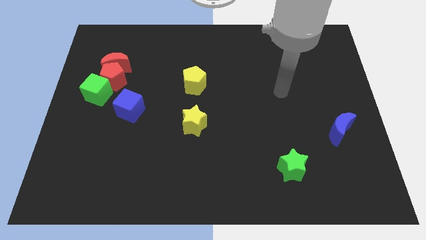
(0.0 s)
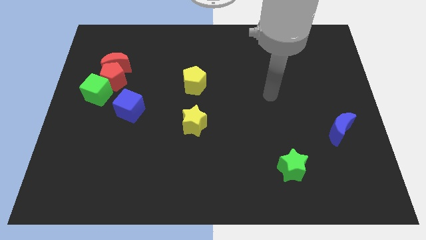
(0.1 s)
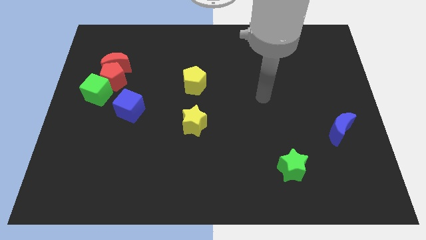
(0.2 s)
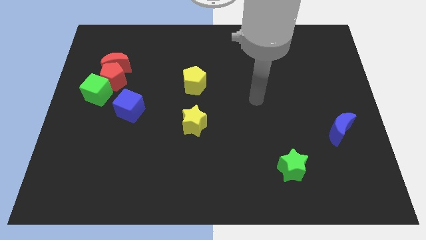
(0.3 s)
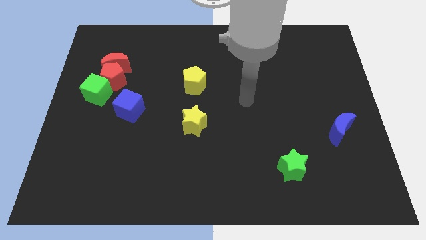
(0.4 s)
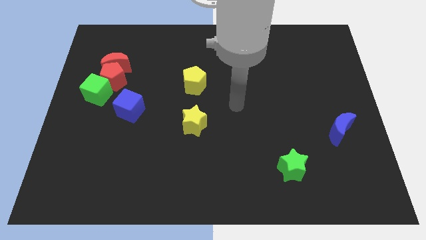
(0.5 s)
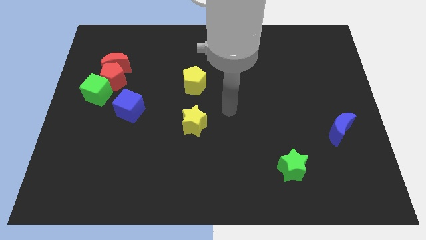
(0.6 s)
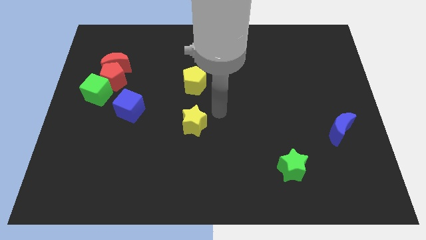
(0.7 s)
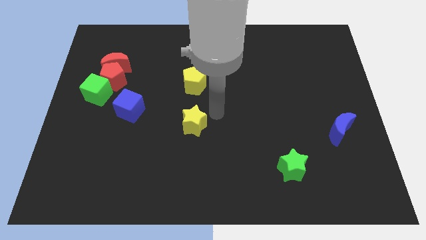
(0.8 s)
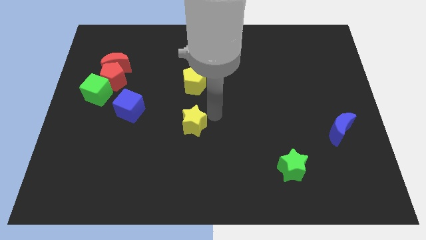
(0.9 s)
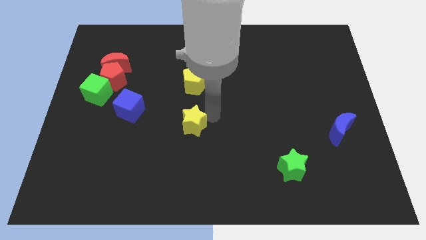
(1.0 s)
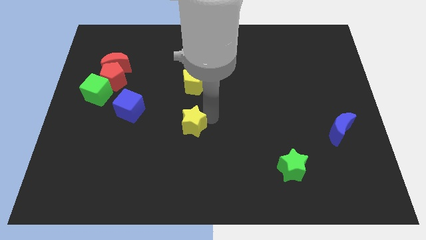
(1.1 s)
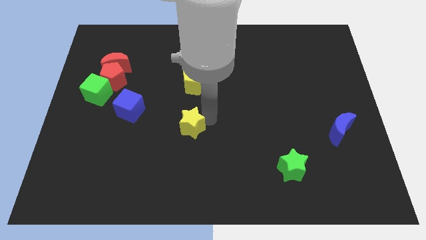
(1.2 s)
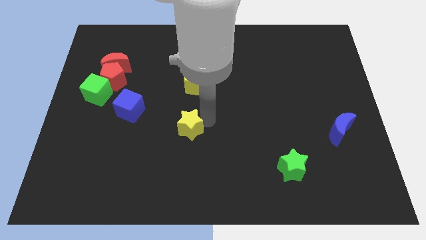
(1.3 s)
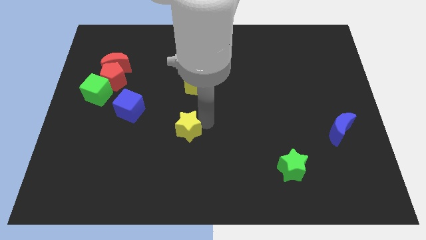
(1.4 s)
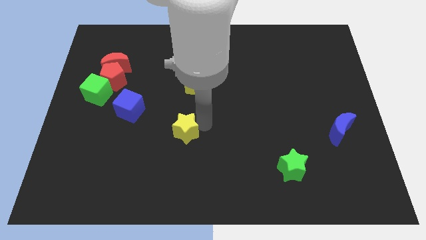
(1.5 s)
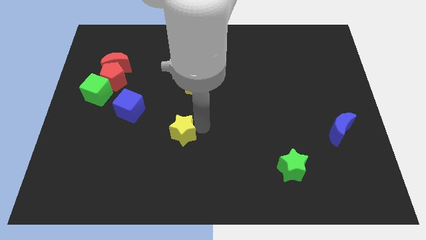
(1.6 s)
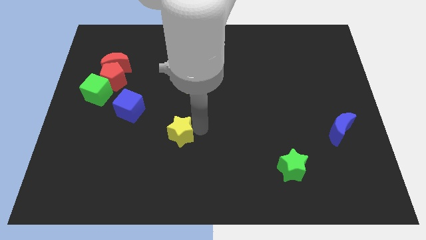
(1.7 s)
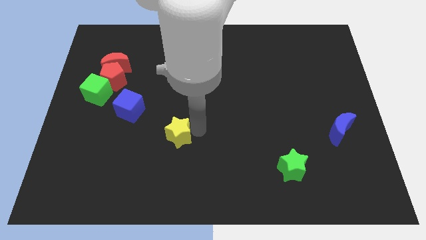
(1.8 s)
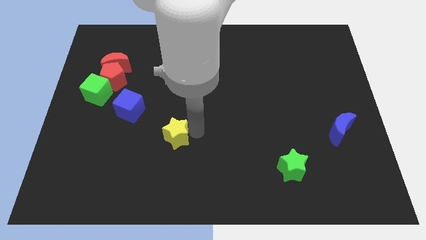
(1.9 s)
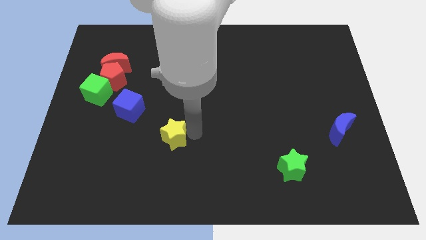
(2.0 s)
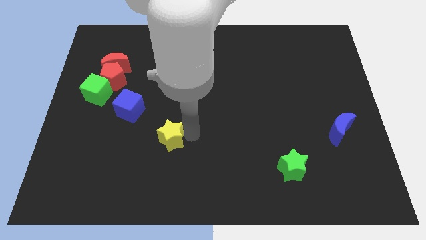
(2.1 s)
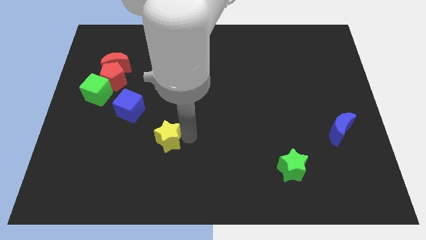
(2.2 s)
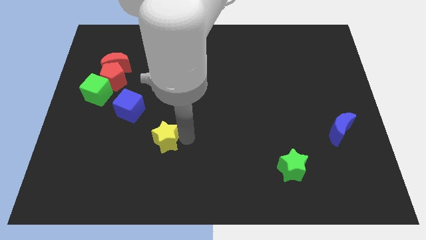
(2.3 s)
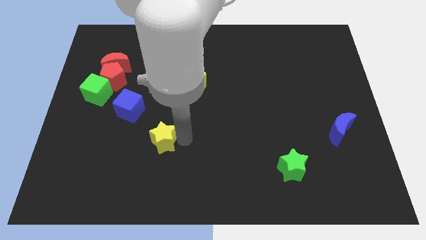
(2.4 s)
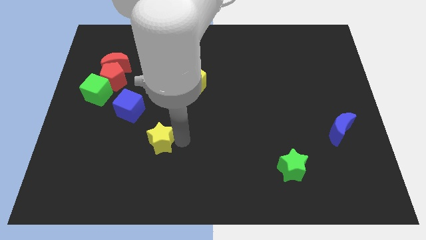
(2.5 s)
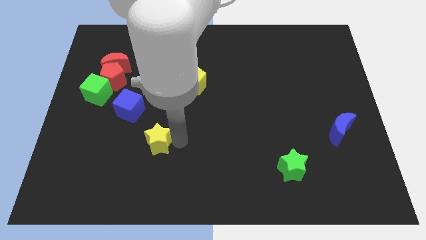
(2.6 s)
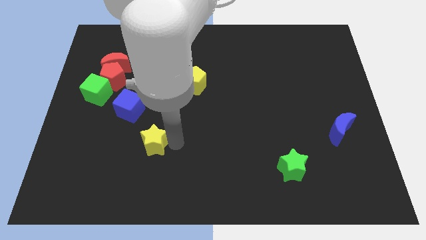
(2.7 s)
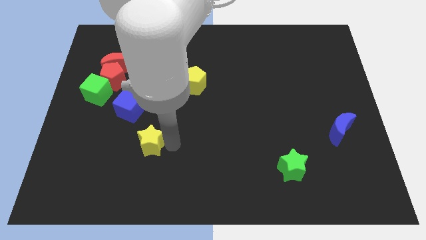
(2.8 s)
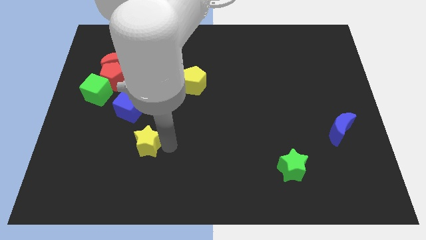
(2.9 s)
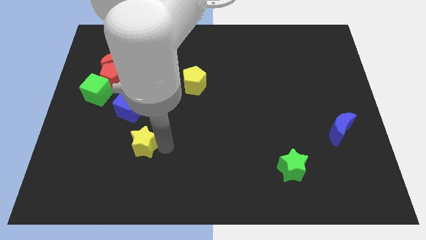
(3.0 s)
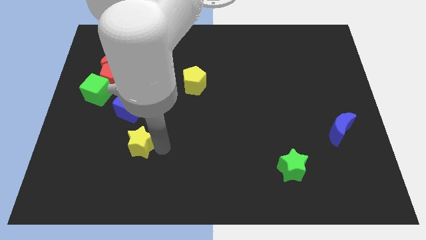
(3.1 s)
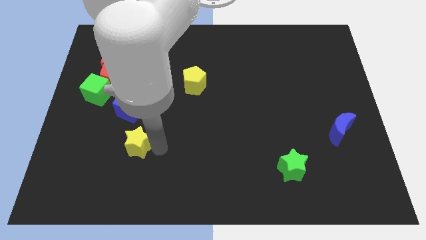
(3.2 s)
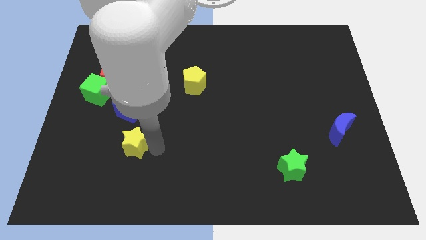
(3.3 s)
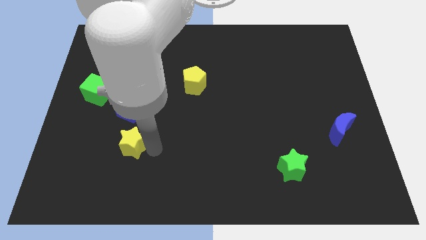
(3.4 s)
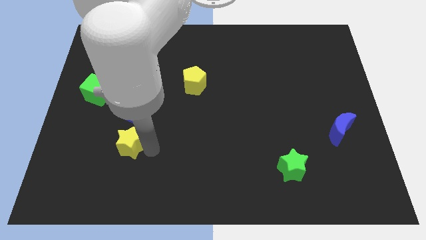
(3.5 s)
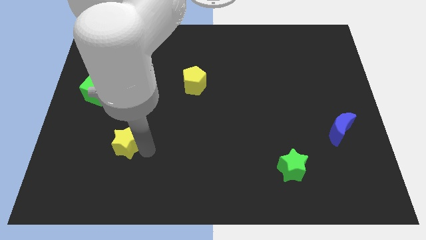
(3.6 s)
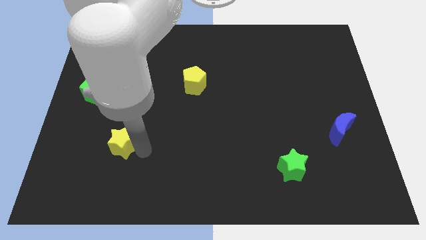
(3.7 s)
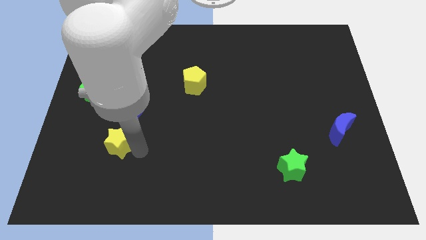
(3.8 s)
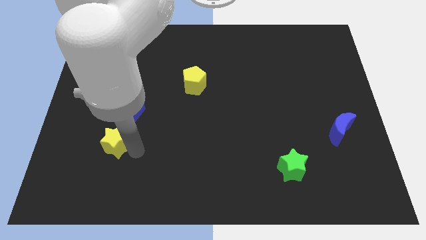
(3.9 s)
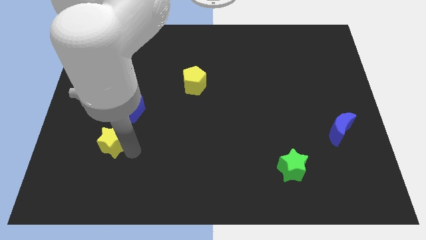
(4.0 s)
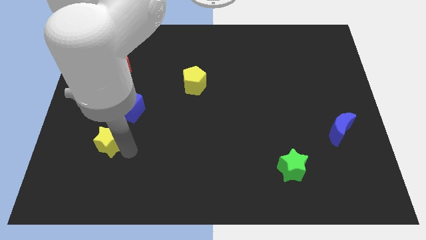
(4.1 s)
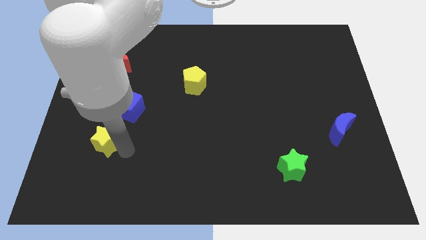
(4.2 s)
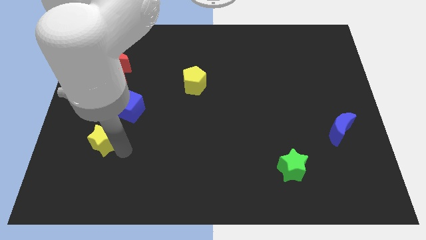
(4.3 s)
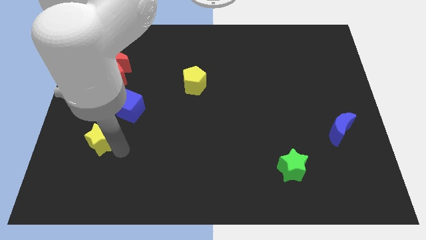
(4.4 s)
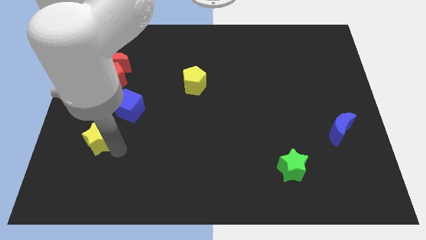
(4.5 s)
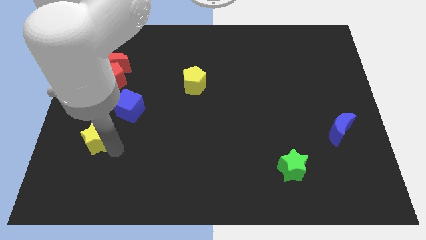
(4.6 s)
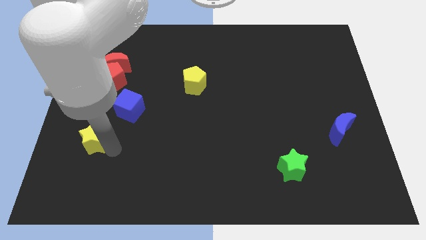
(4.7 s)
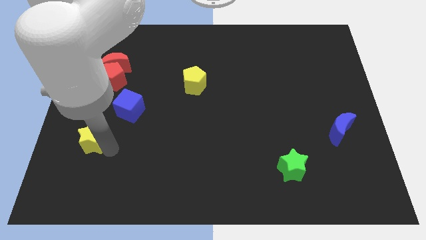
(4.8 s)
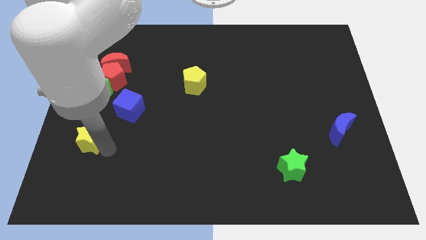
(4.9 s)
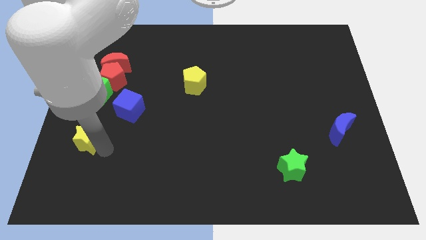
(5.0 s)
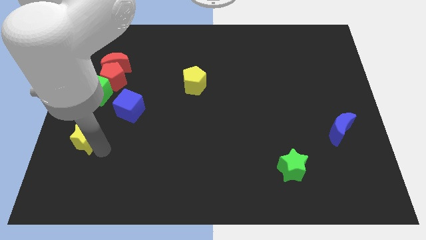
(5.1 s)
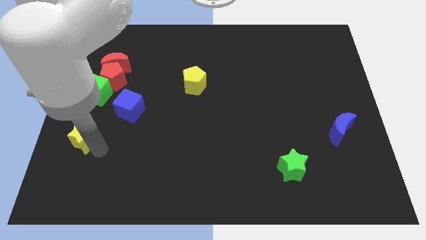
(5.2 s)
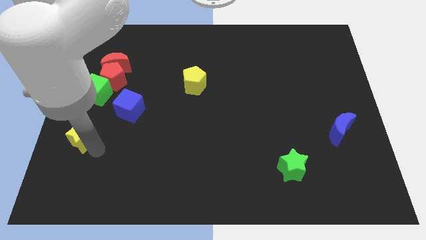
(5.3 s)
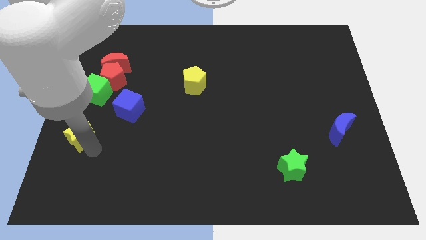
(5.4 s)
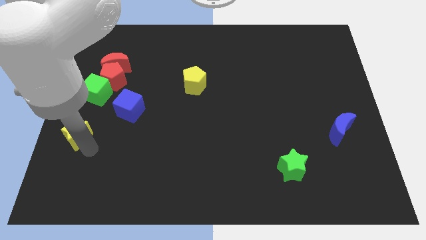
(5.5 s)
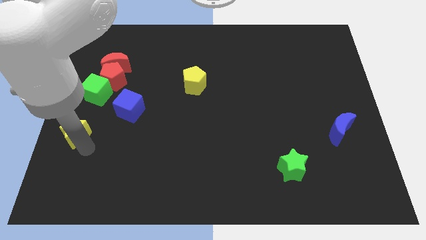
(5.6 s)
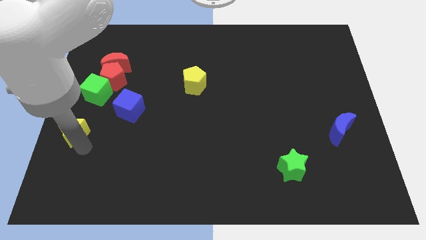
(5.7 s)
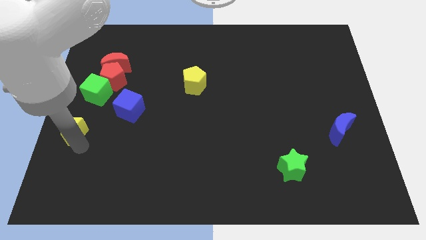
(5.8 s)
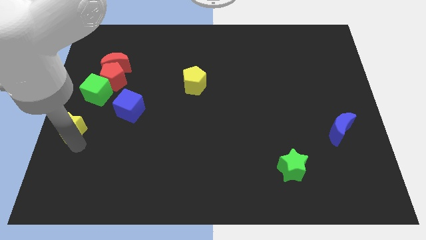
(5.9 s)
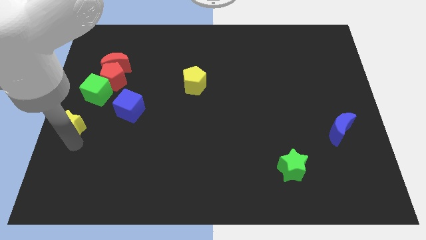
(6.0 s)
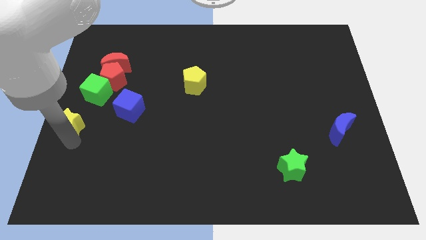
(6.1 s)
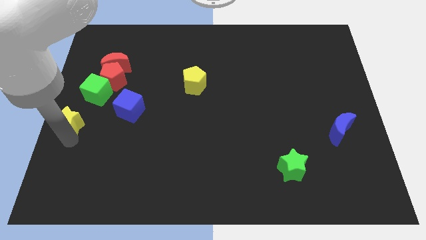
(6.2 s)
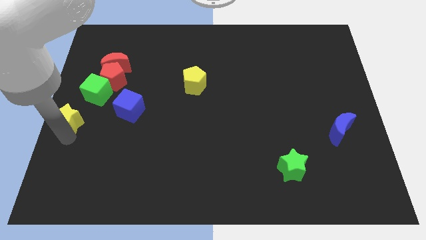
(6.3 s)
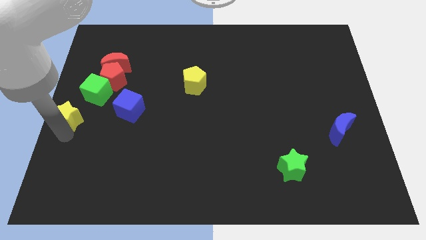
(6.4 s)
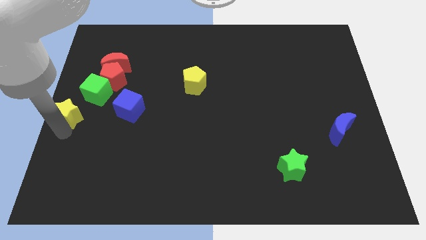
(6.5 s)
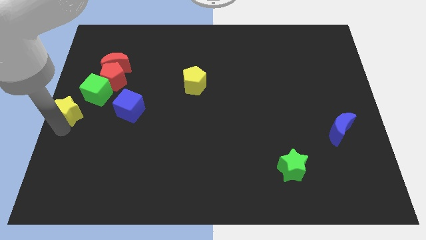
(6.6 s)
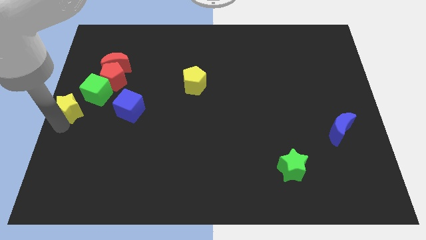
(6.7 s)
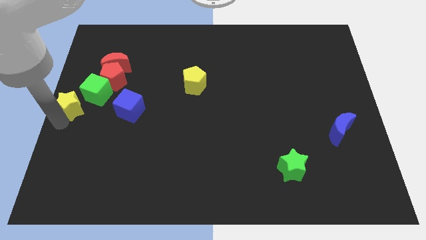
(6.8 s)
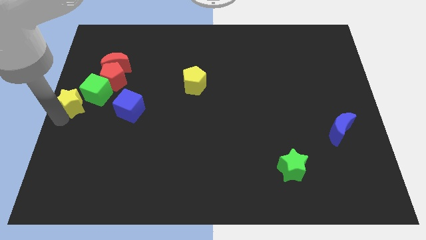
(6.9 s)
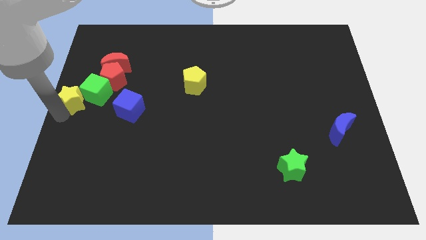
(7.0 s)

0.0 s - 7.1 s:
push the yellow star next to the green cube

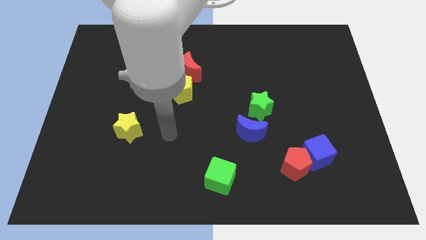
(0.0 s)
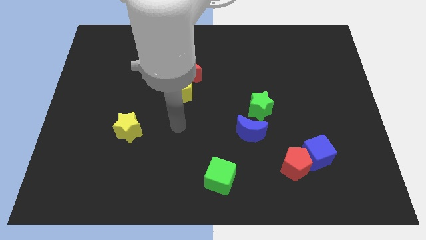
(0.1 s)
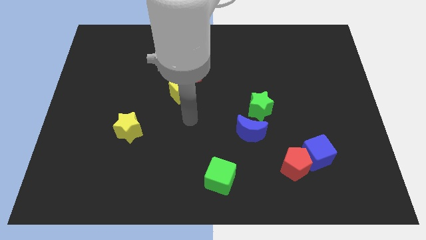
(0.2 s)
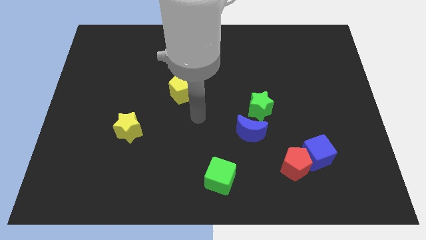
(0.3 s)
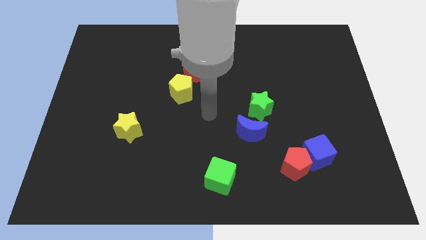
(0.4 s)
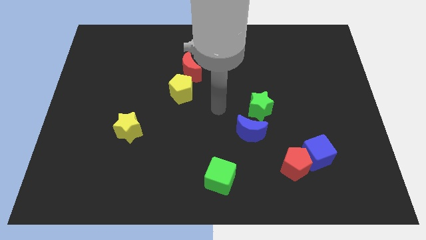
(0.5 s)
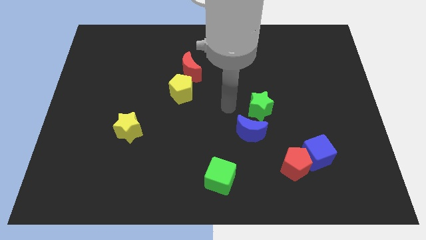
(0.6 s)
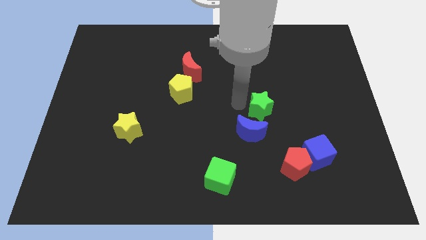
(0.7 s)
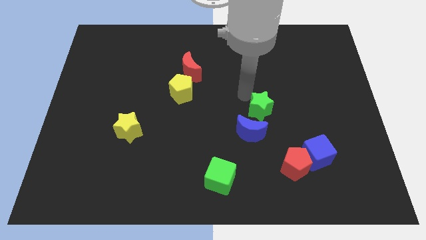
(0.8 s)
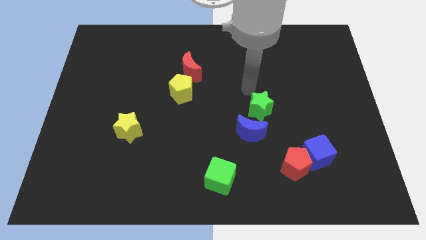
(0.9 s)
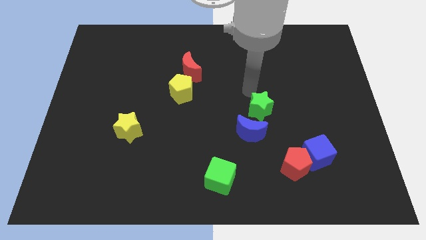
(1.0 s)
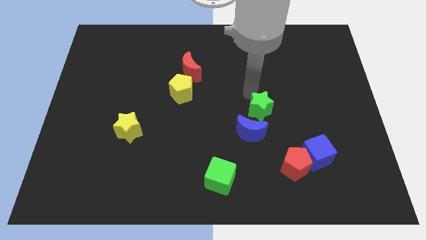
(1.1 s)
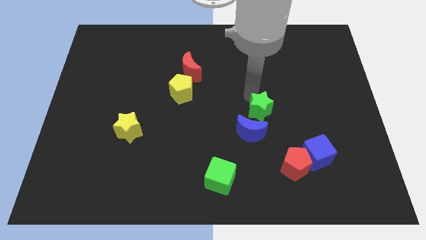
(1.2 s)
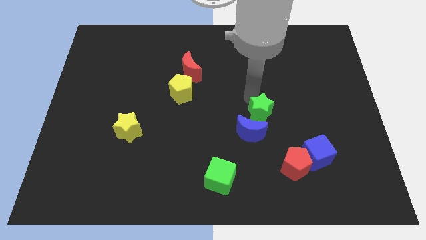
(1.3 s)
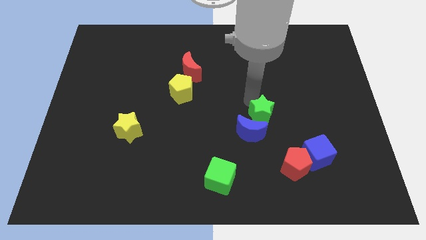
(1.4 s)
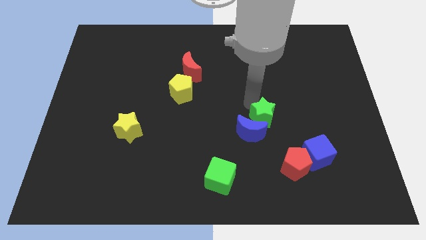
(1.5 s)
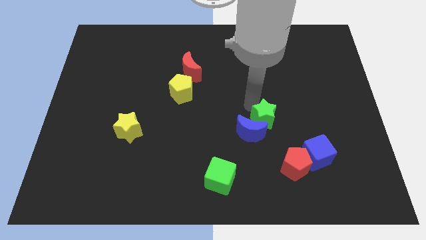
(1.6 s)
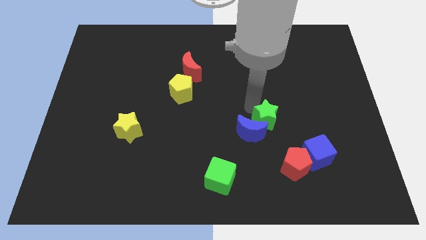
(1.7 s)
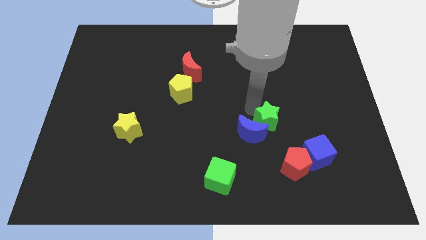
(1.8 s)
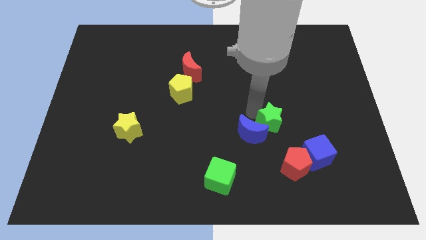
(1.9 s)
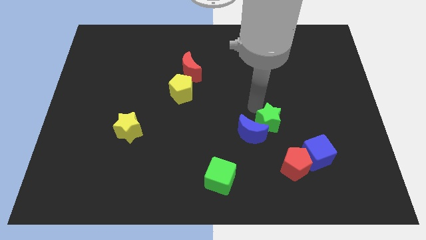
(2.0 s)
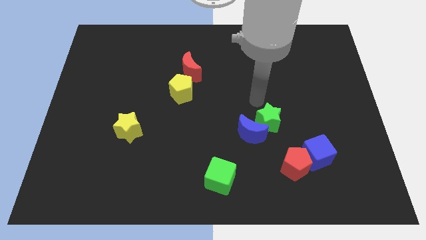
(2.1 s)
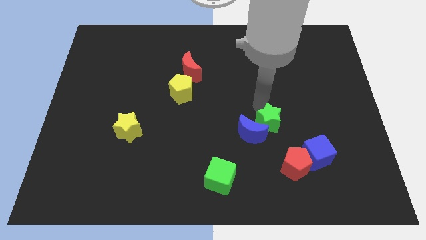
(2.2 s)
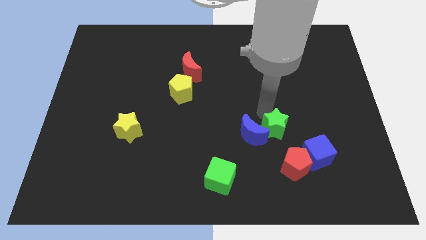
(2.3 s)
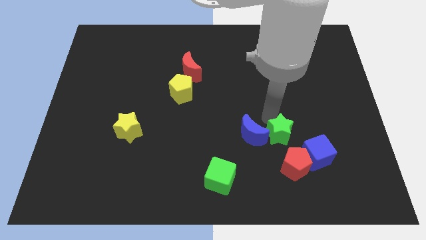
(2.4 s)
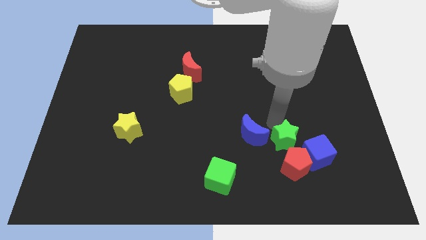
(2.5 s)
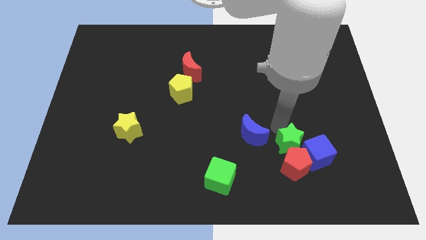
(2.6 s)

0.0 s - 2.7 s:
move the green star next to the red pentagon
